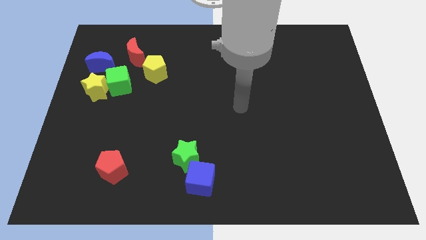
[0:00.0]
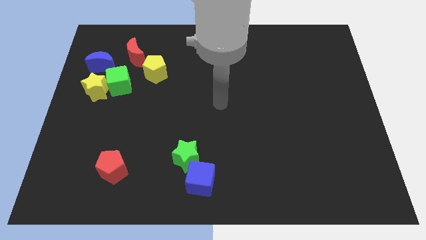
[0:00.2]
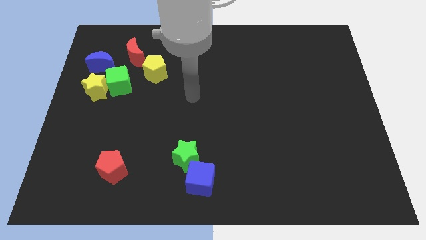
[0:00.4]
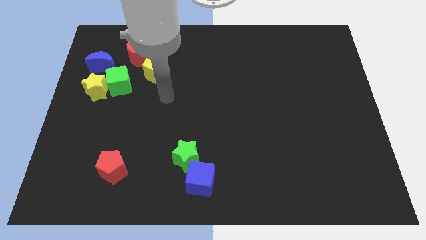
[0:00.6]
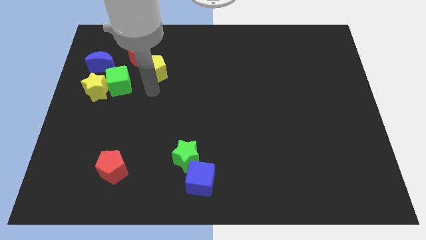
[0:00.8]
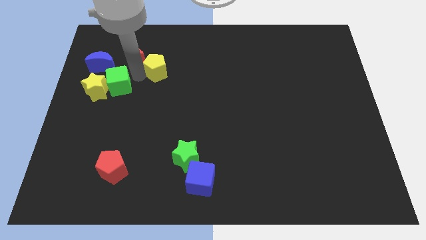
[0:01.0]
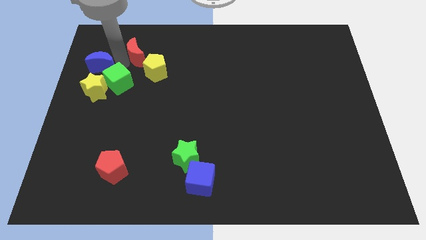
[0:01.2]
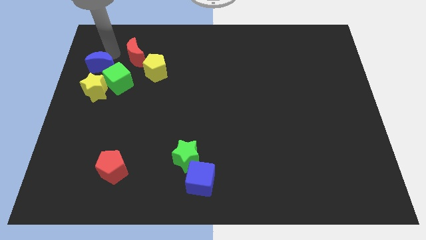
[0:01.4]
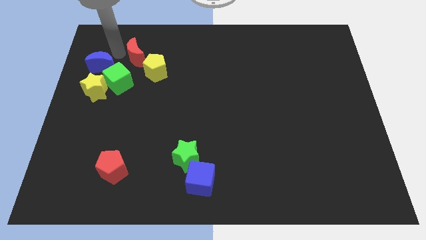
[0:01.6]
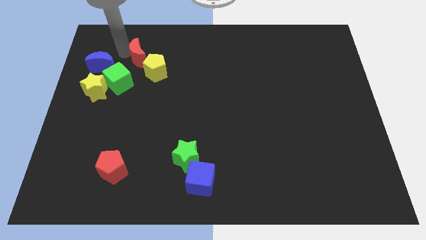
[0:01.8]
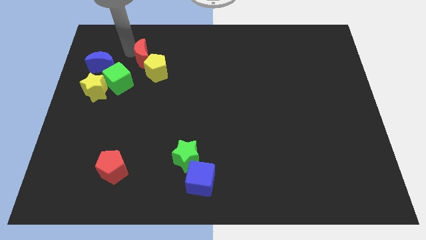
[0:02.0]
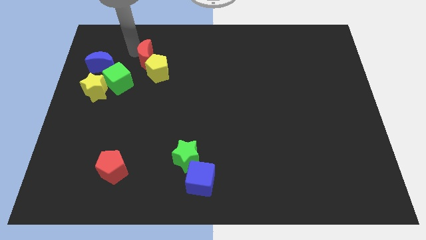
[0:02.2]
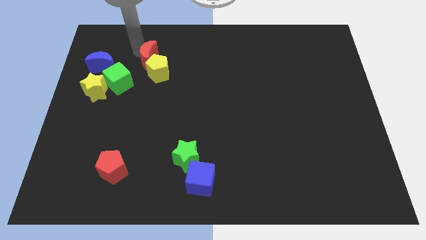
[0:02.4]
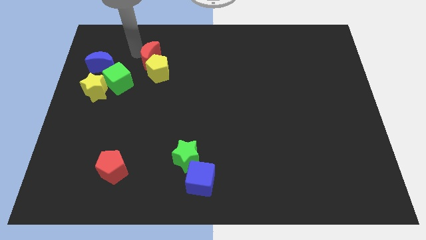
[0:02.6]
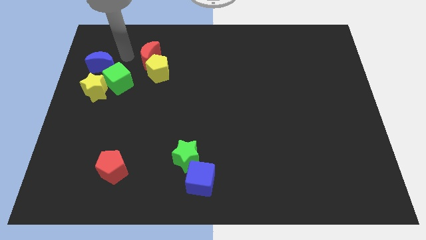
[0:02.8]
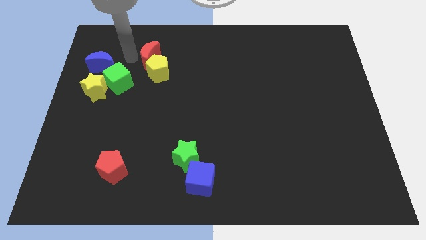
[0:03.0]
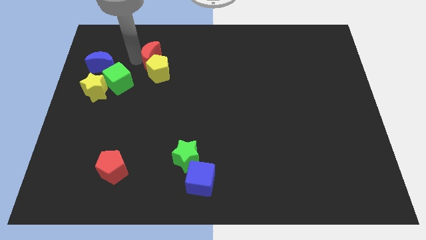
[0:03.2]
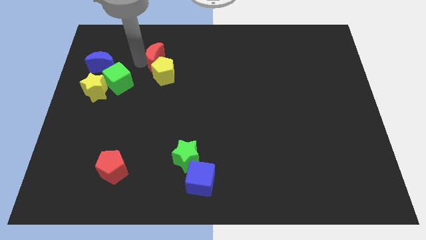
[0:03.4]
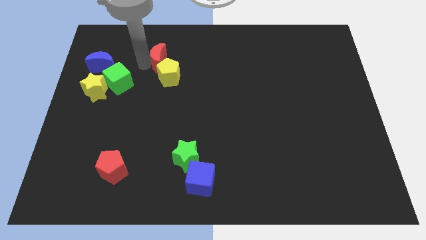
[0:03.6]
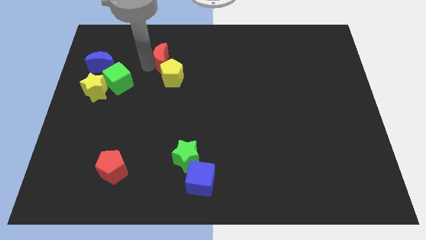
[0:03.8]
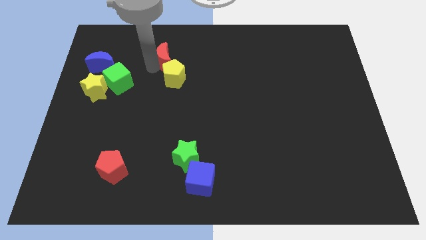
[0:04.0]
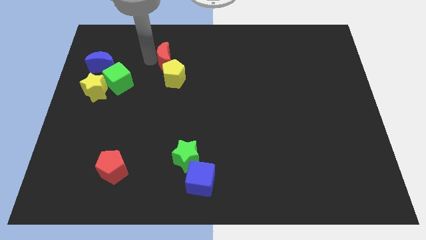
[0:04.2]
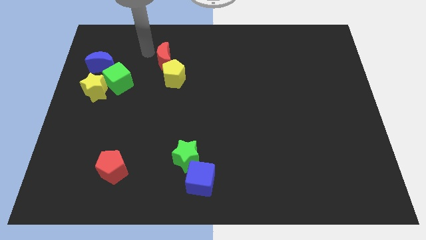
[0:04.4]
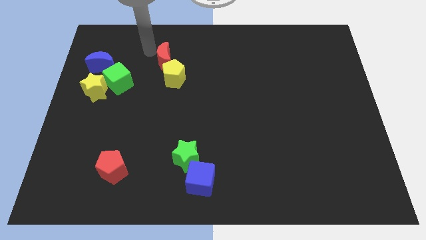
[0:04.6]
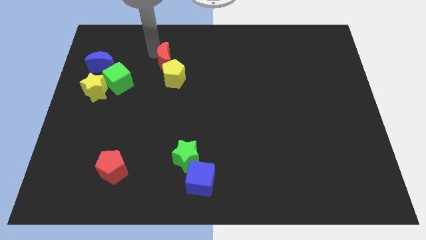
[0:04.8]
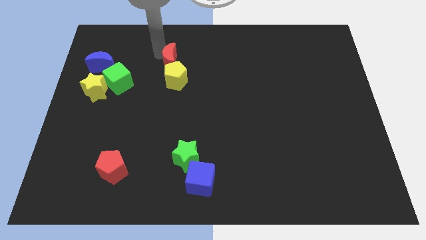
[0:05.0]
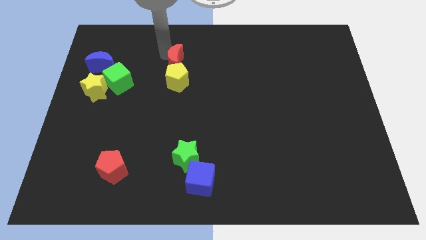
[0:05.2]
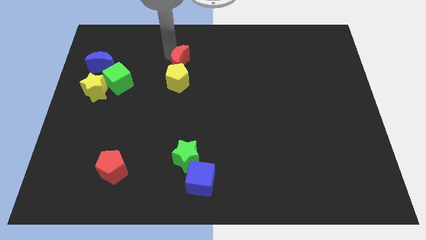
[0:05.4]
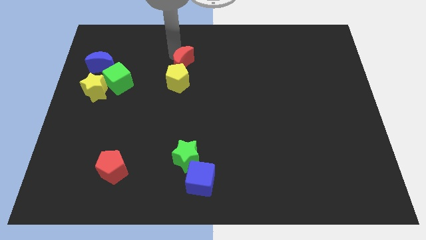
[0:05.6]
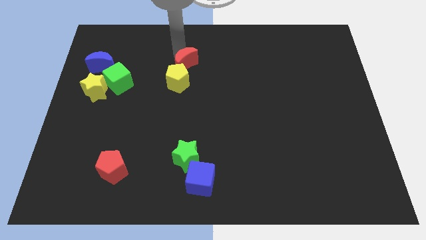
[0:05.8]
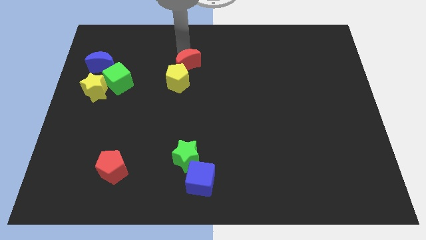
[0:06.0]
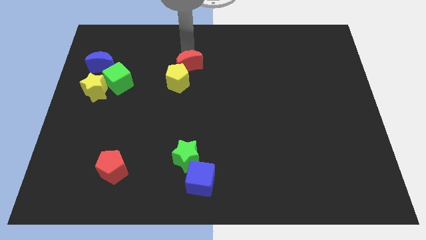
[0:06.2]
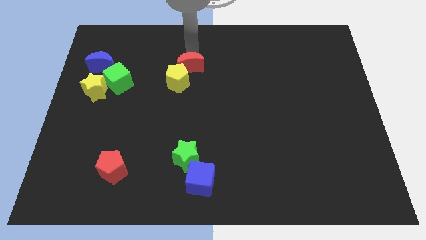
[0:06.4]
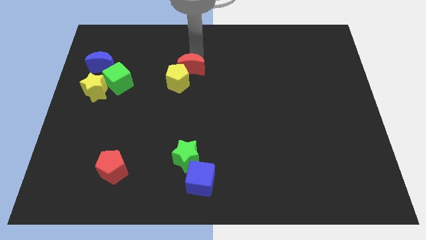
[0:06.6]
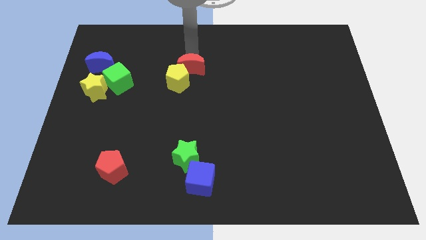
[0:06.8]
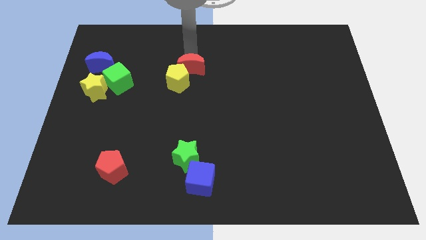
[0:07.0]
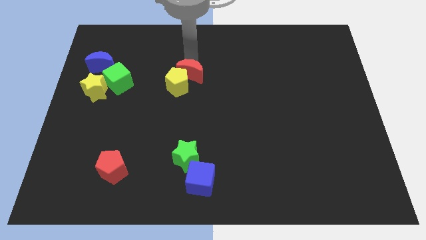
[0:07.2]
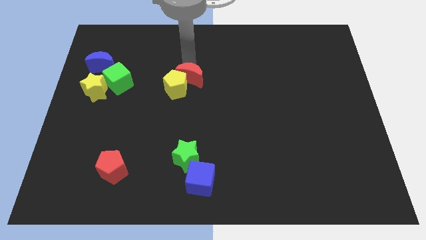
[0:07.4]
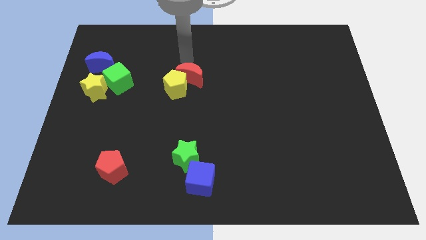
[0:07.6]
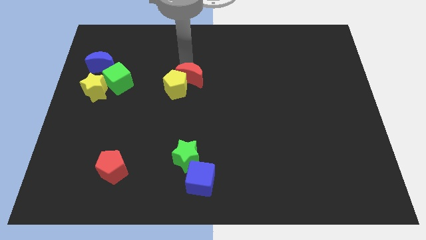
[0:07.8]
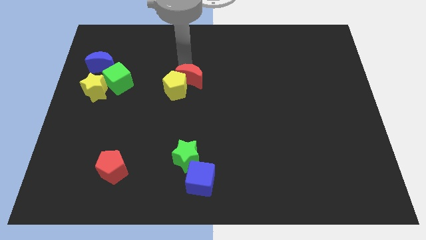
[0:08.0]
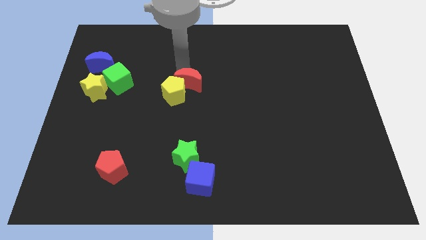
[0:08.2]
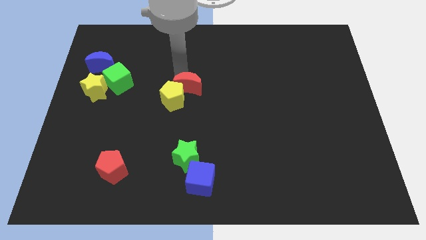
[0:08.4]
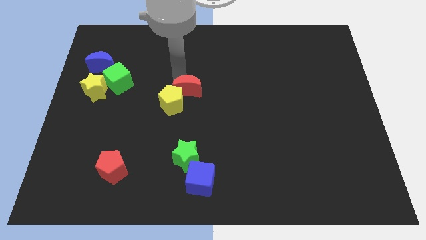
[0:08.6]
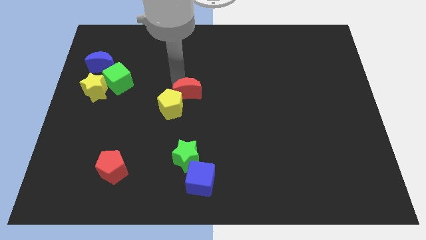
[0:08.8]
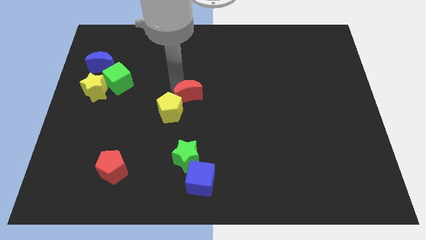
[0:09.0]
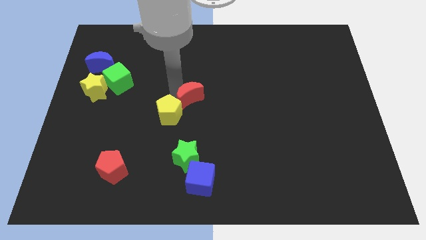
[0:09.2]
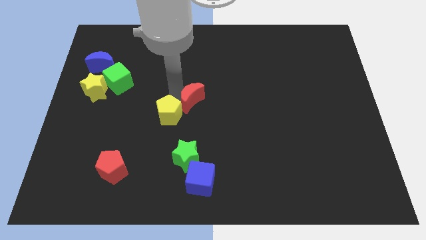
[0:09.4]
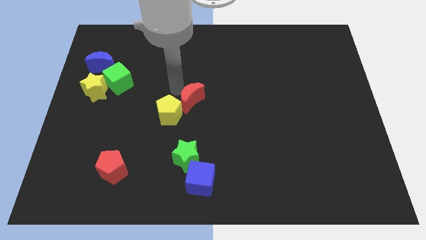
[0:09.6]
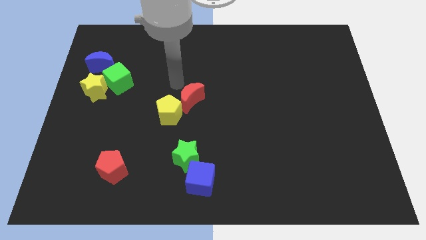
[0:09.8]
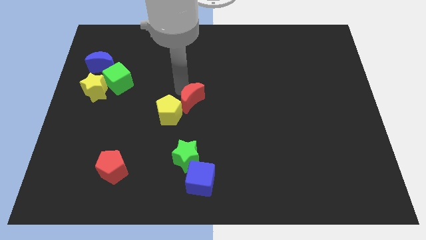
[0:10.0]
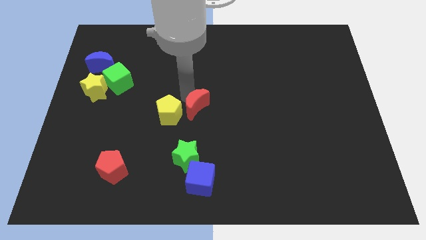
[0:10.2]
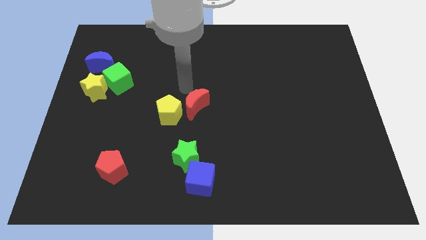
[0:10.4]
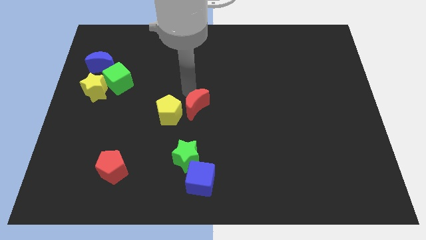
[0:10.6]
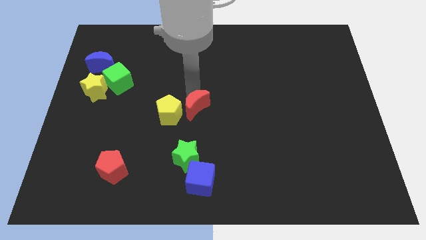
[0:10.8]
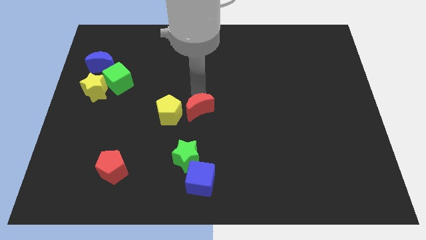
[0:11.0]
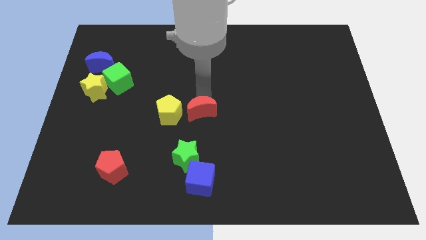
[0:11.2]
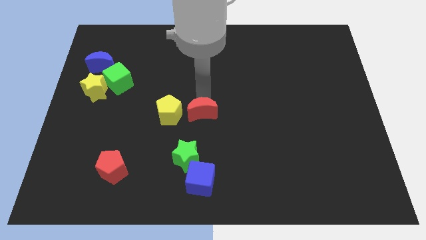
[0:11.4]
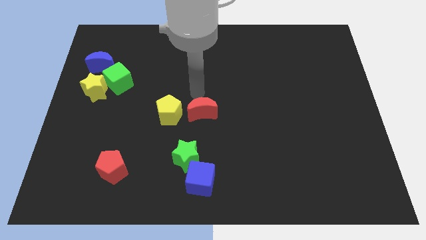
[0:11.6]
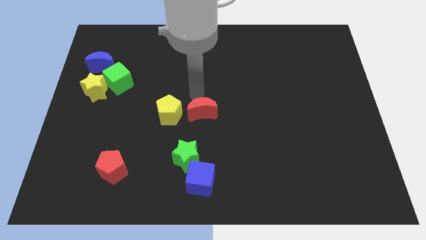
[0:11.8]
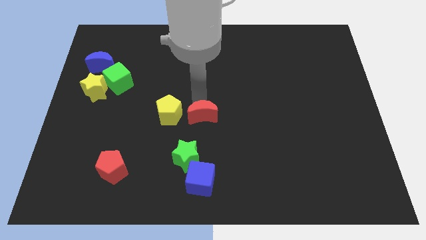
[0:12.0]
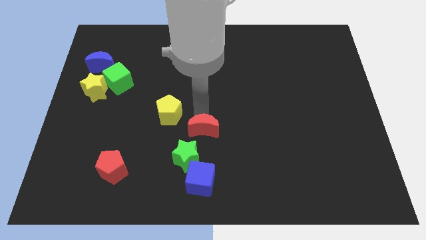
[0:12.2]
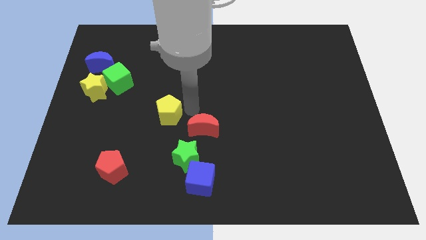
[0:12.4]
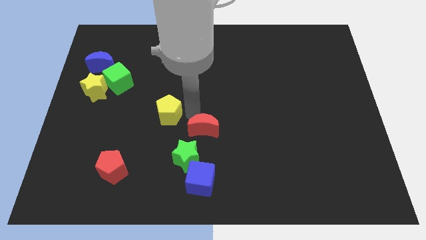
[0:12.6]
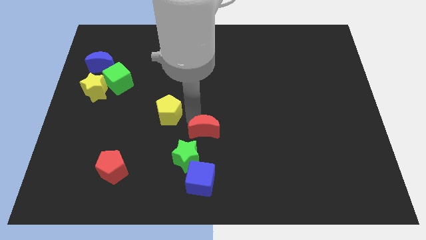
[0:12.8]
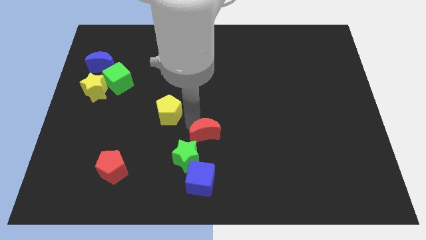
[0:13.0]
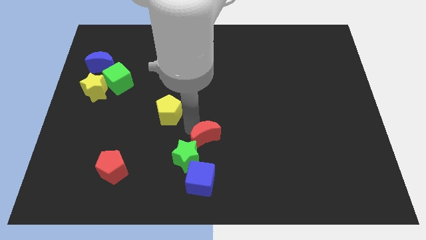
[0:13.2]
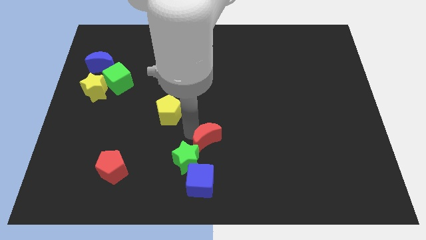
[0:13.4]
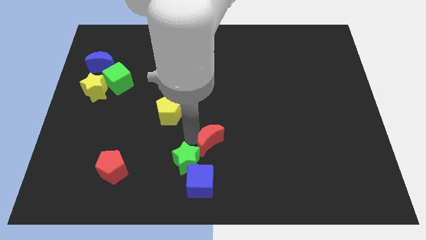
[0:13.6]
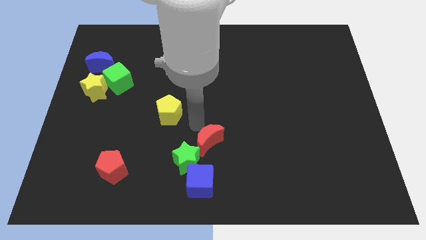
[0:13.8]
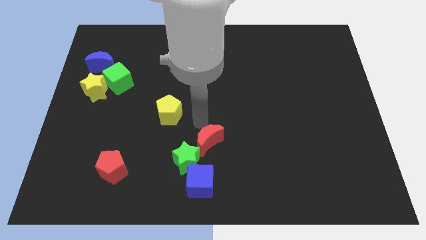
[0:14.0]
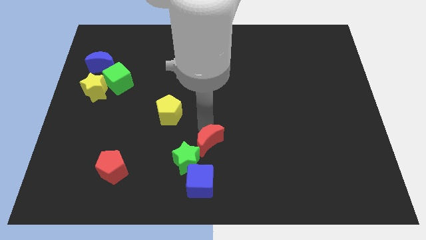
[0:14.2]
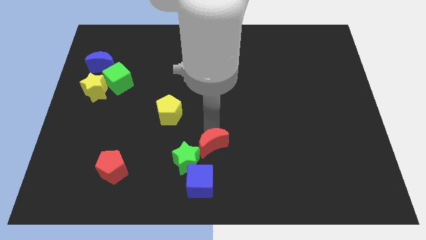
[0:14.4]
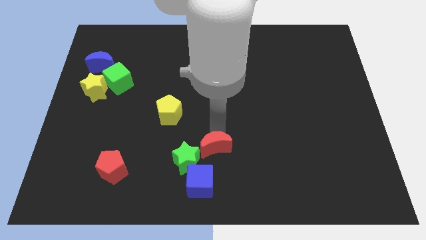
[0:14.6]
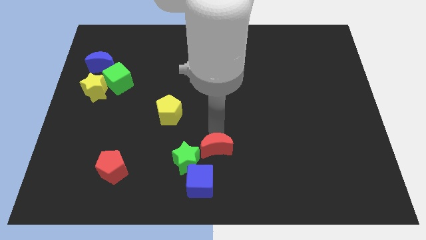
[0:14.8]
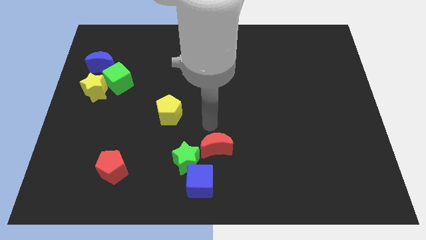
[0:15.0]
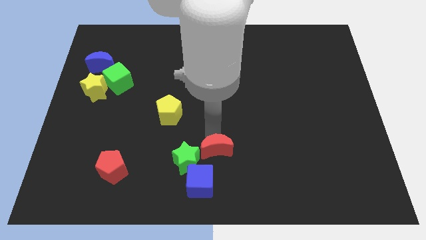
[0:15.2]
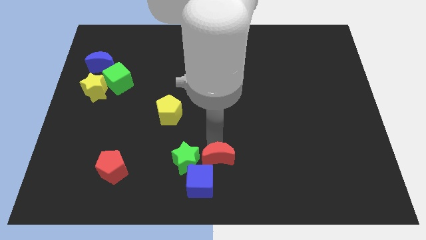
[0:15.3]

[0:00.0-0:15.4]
slide the red moon to the bottom
